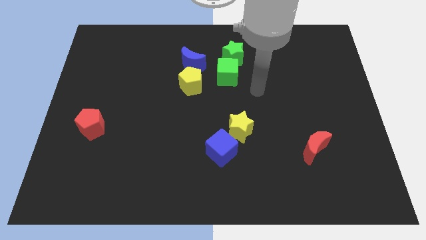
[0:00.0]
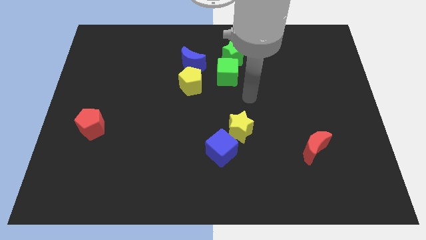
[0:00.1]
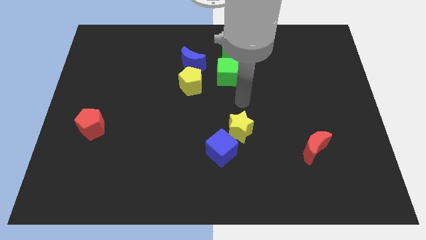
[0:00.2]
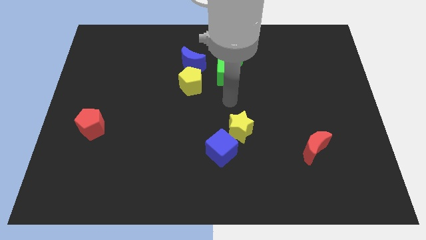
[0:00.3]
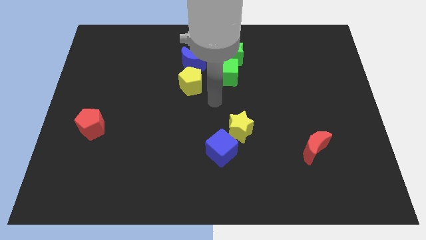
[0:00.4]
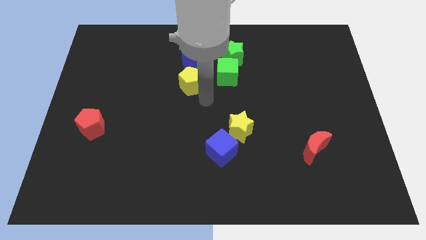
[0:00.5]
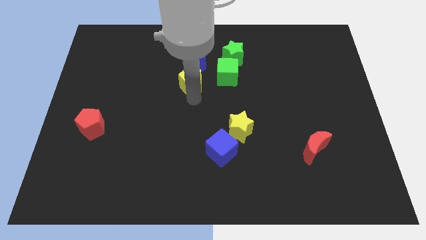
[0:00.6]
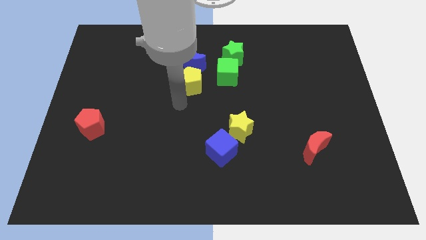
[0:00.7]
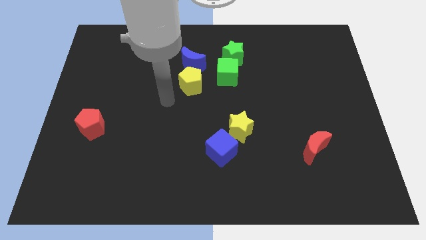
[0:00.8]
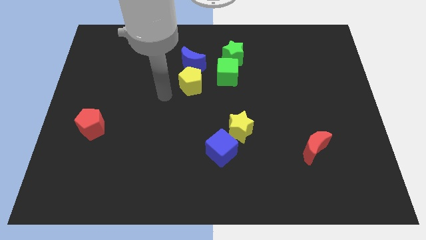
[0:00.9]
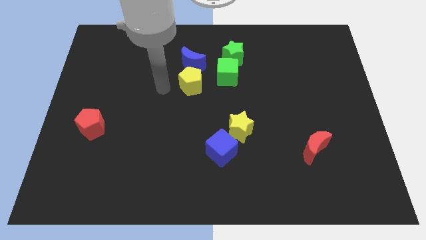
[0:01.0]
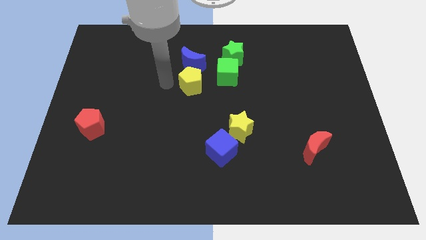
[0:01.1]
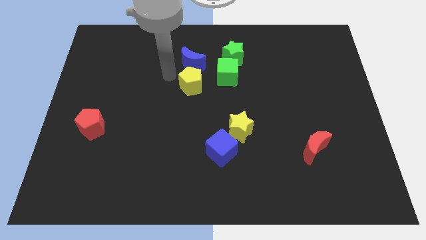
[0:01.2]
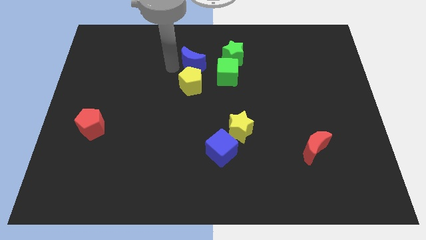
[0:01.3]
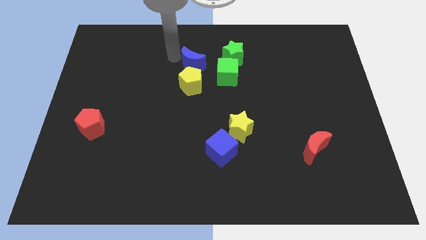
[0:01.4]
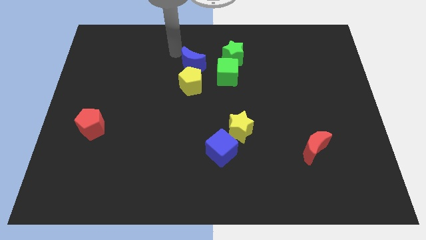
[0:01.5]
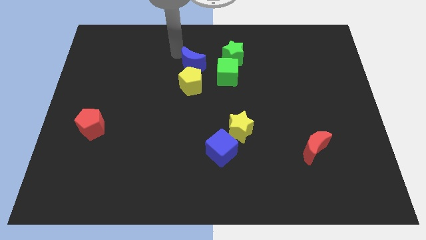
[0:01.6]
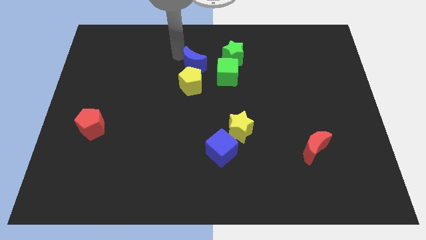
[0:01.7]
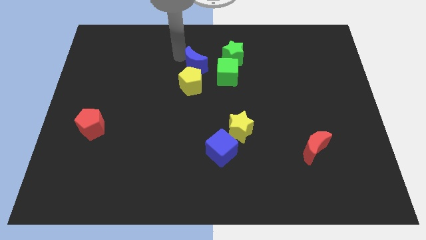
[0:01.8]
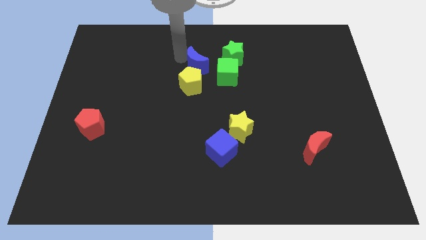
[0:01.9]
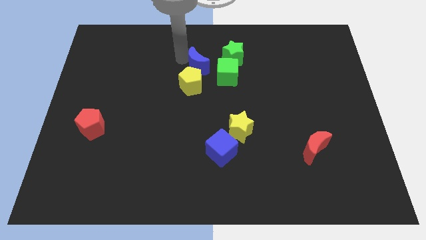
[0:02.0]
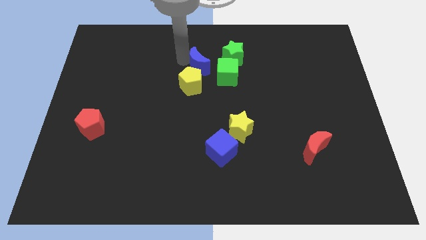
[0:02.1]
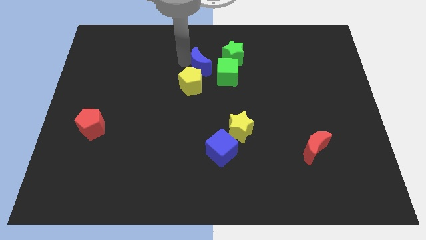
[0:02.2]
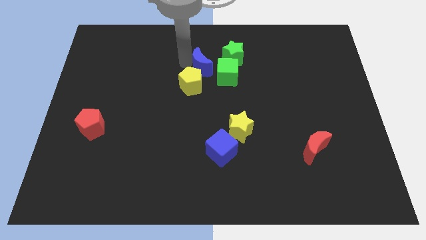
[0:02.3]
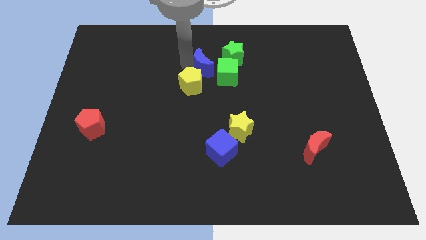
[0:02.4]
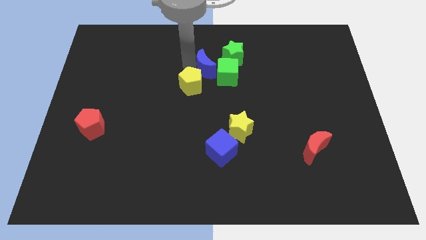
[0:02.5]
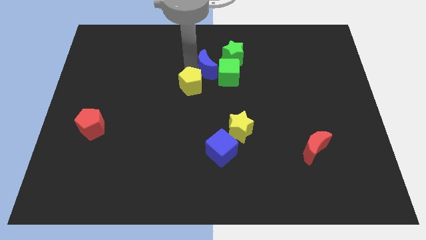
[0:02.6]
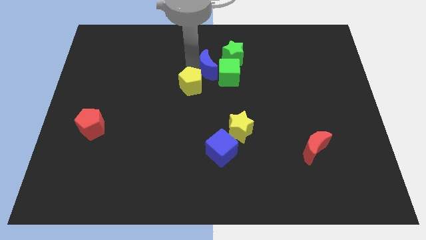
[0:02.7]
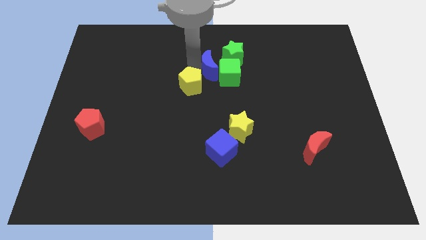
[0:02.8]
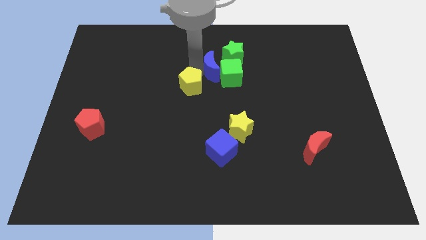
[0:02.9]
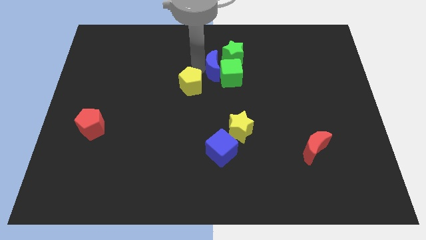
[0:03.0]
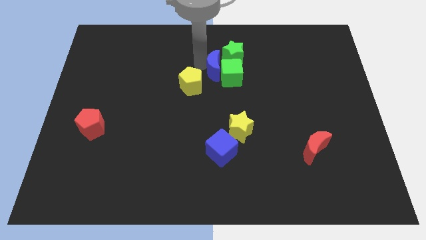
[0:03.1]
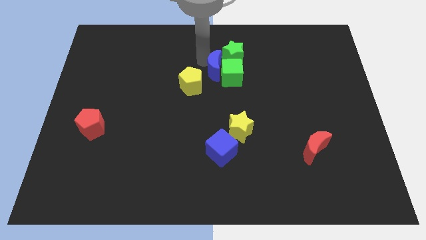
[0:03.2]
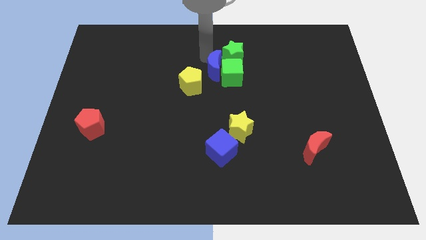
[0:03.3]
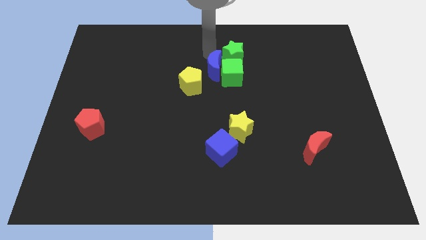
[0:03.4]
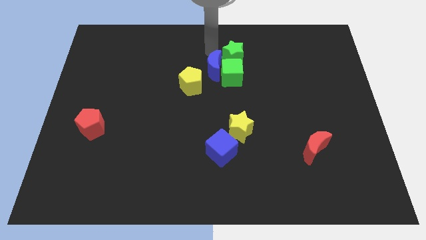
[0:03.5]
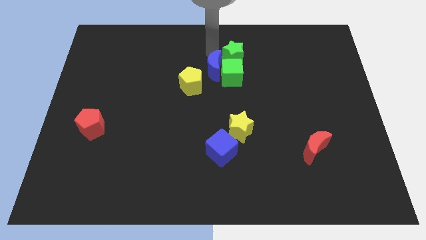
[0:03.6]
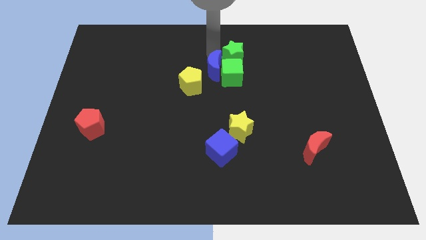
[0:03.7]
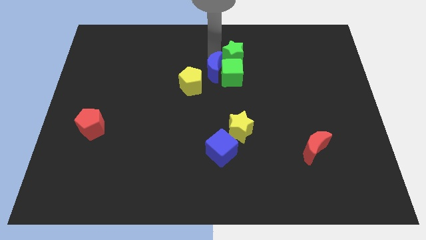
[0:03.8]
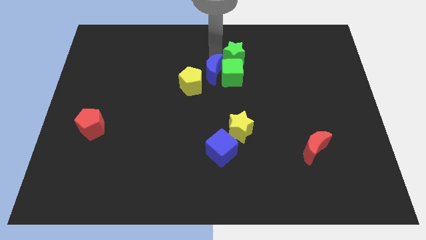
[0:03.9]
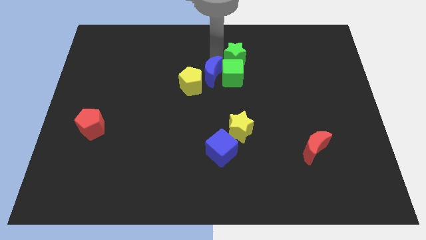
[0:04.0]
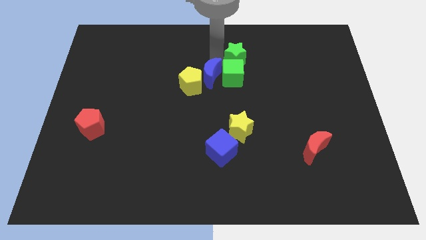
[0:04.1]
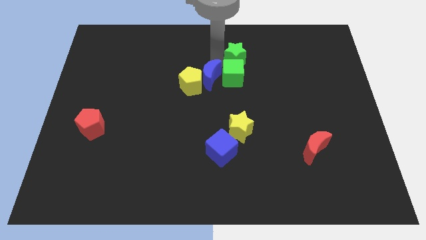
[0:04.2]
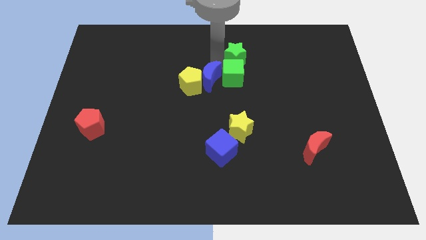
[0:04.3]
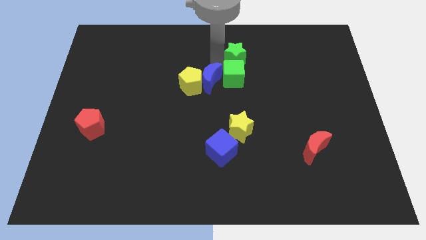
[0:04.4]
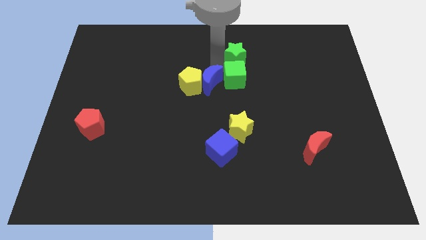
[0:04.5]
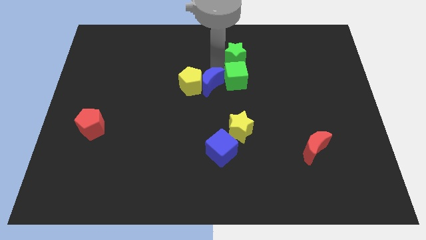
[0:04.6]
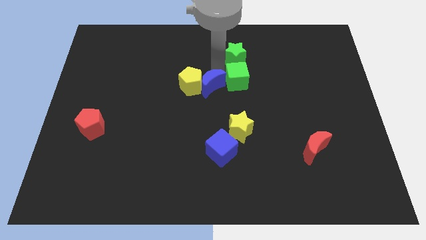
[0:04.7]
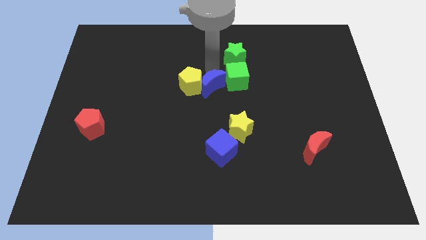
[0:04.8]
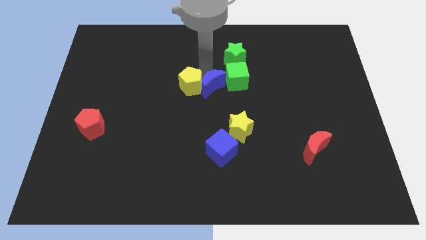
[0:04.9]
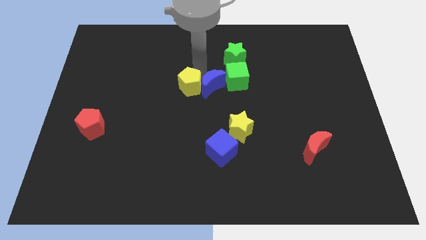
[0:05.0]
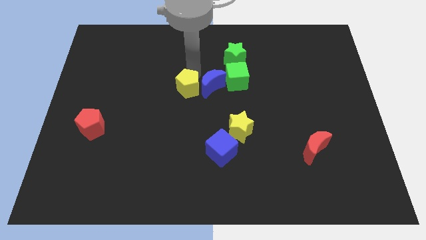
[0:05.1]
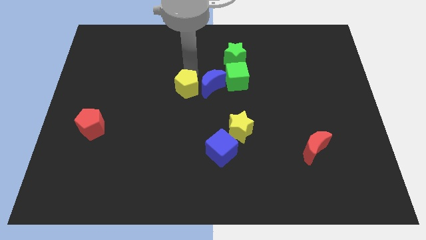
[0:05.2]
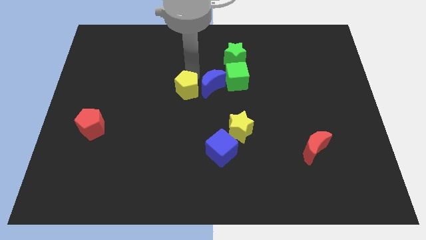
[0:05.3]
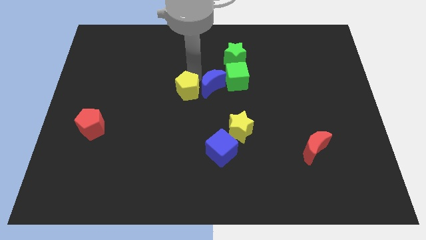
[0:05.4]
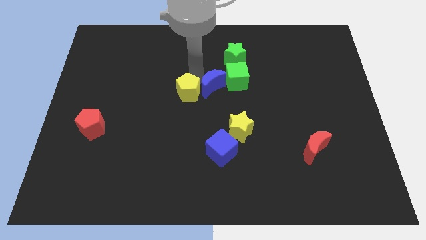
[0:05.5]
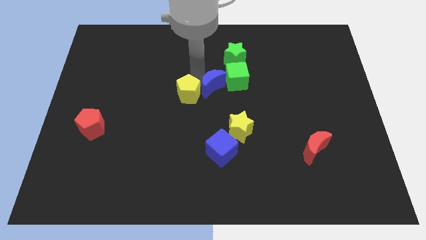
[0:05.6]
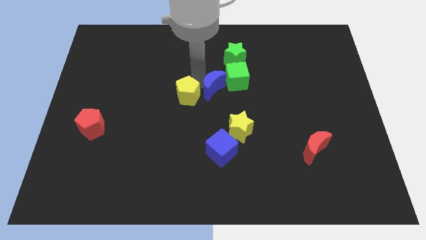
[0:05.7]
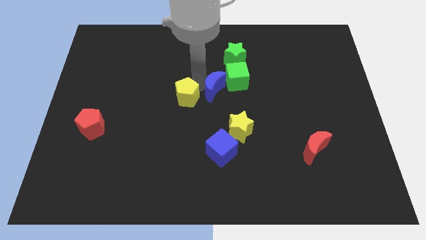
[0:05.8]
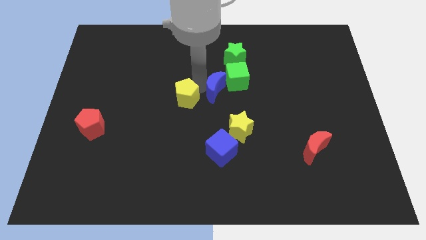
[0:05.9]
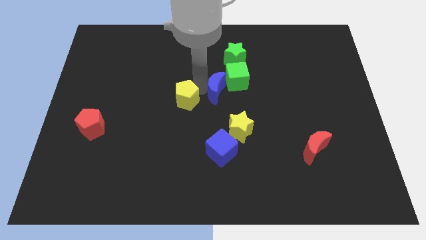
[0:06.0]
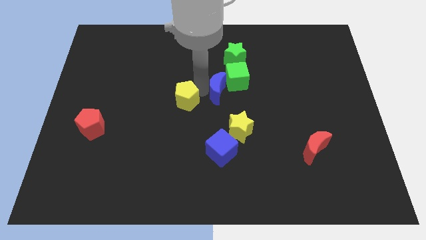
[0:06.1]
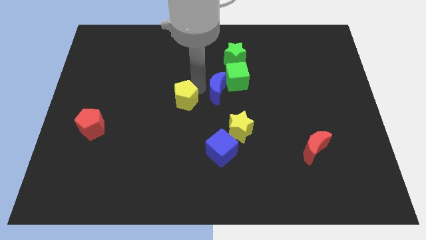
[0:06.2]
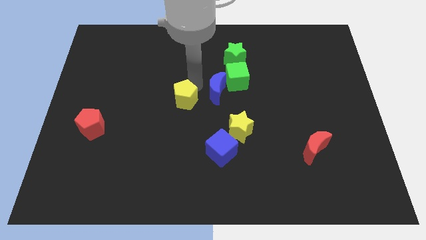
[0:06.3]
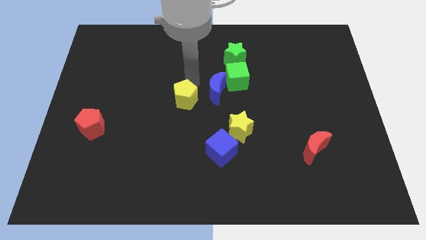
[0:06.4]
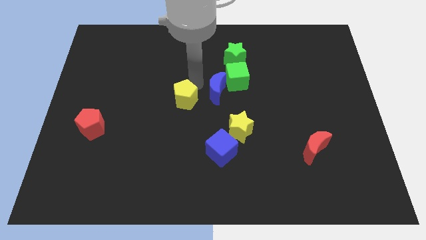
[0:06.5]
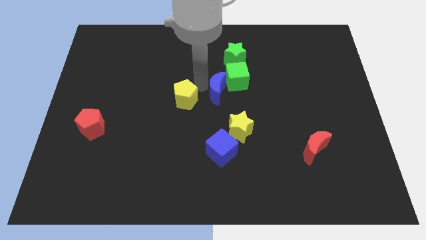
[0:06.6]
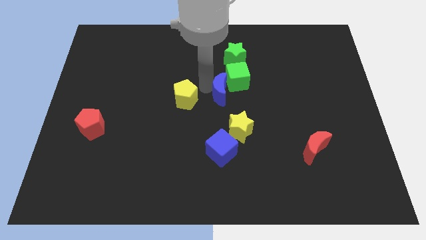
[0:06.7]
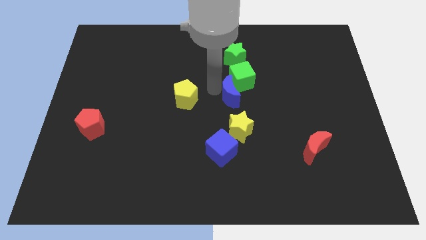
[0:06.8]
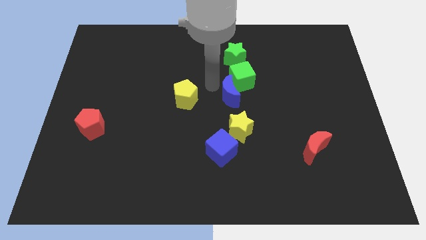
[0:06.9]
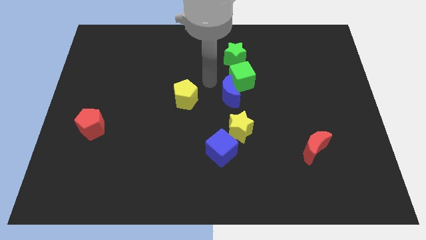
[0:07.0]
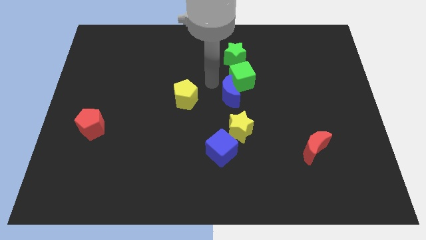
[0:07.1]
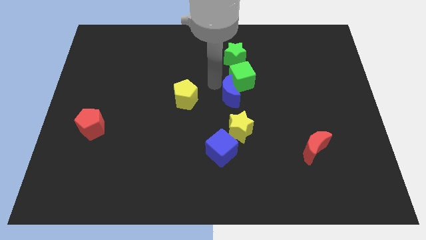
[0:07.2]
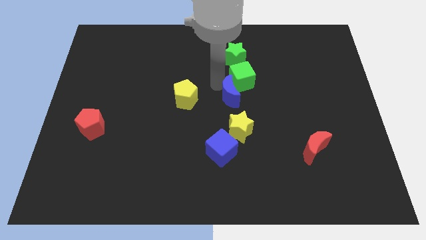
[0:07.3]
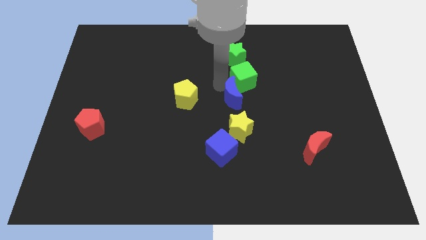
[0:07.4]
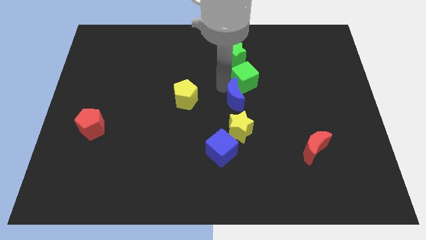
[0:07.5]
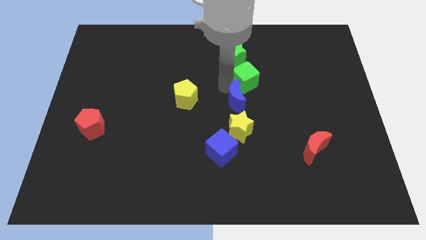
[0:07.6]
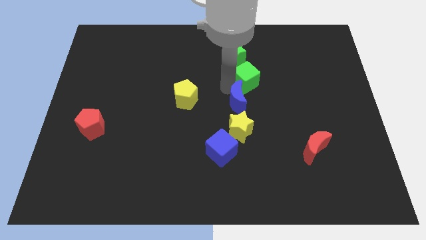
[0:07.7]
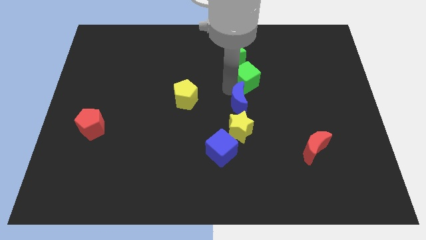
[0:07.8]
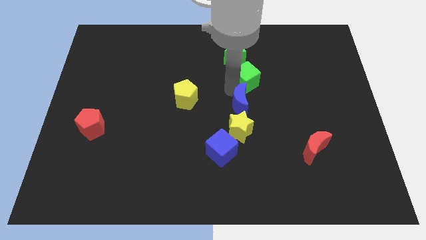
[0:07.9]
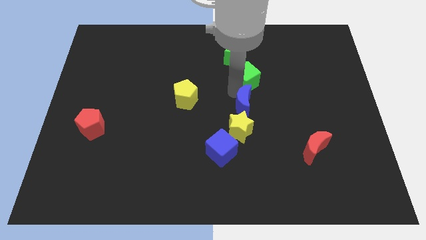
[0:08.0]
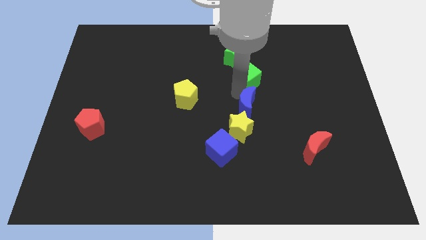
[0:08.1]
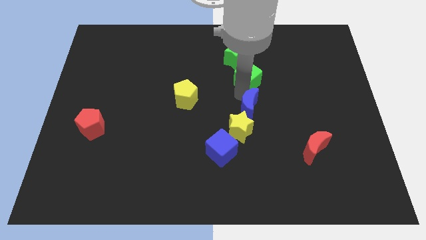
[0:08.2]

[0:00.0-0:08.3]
move the blue moon down and right diagonally
